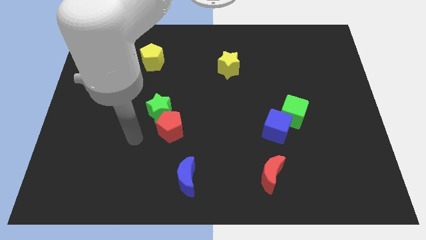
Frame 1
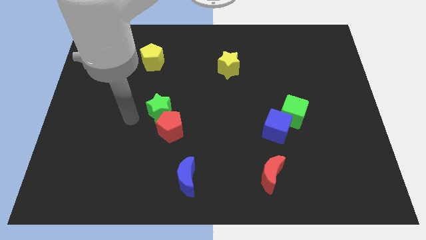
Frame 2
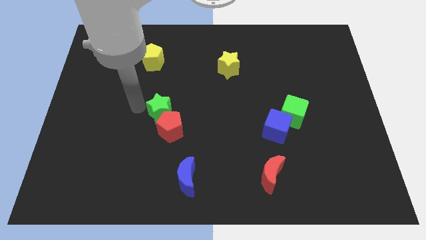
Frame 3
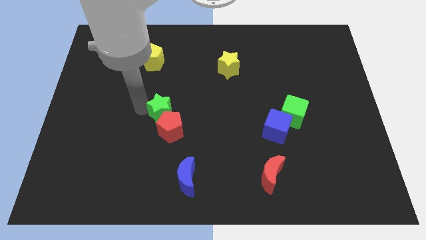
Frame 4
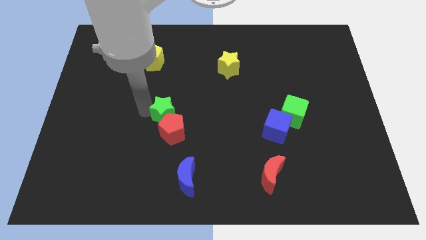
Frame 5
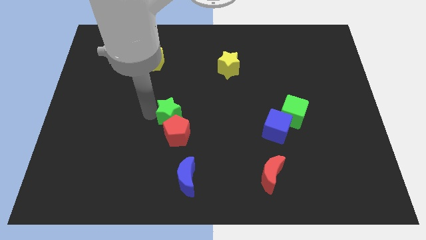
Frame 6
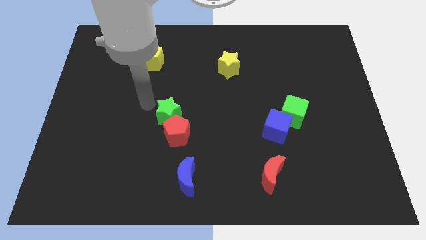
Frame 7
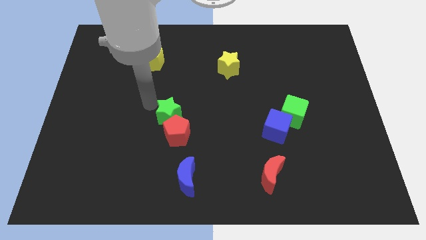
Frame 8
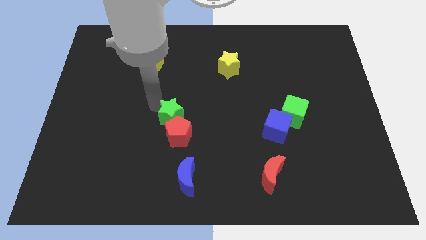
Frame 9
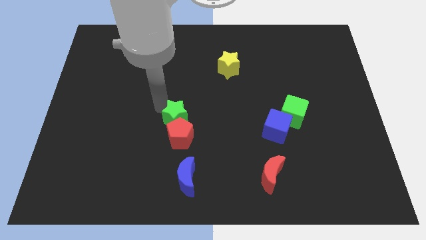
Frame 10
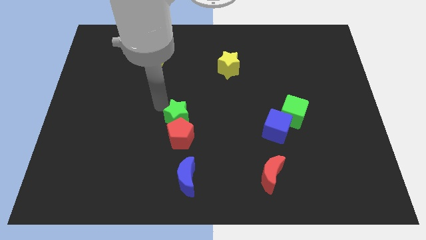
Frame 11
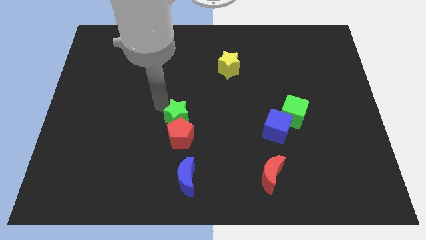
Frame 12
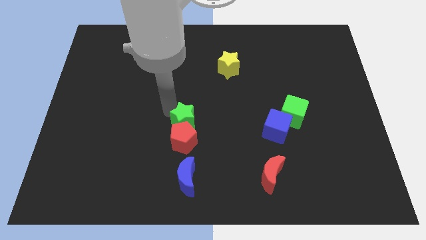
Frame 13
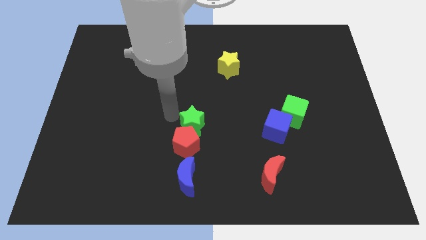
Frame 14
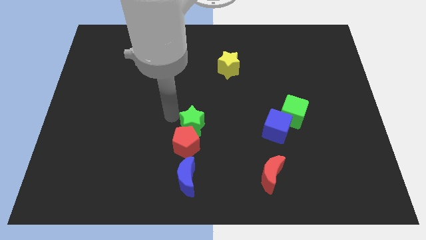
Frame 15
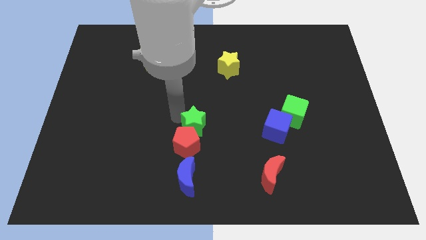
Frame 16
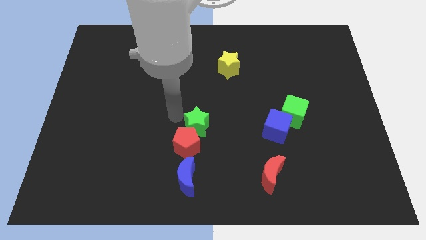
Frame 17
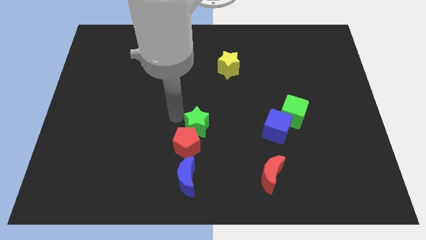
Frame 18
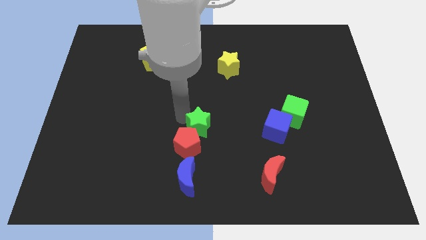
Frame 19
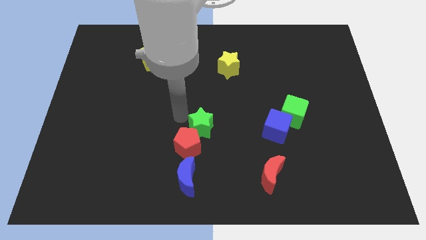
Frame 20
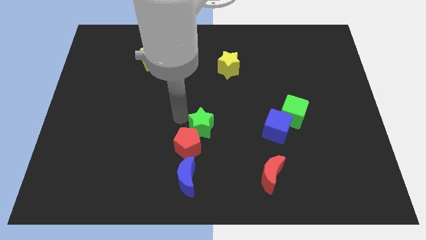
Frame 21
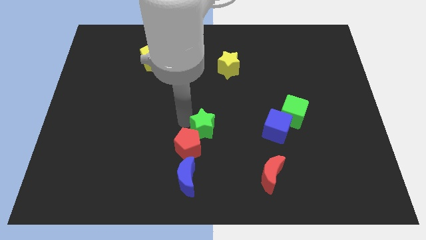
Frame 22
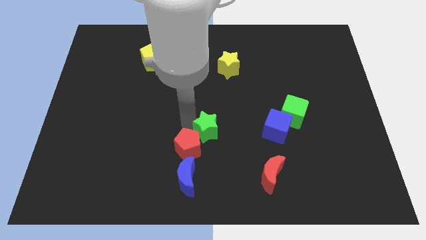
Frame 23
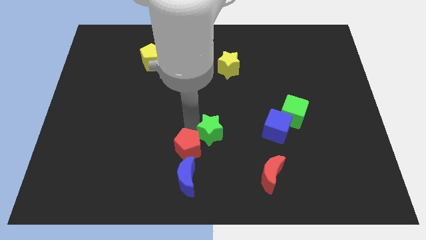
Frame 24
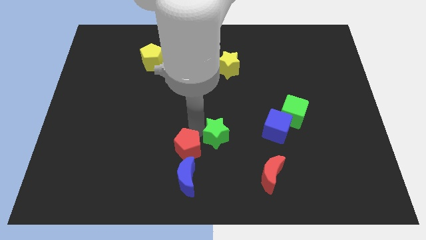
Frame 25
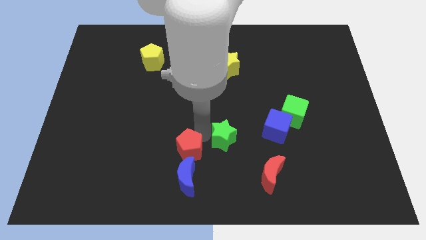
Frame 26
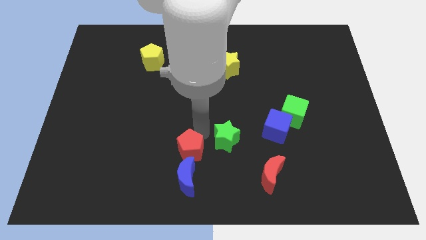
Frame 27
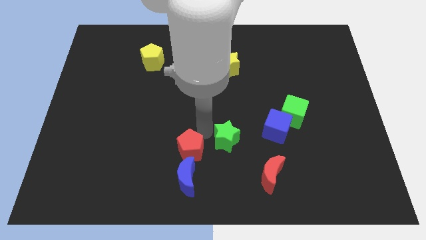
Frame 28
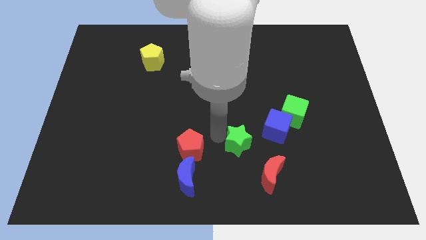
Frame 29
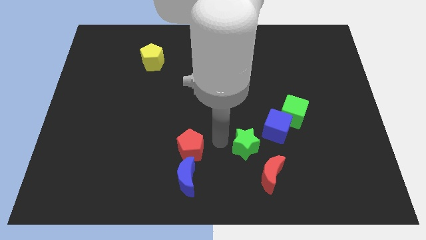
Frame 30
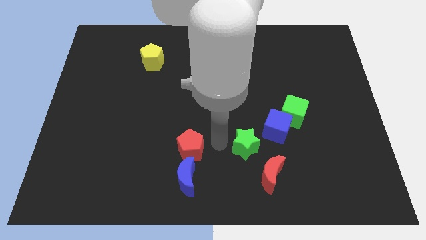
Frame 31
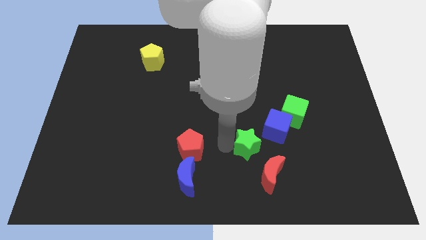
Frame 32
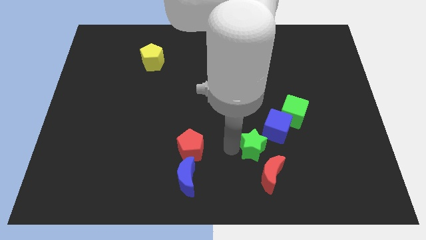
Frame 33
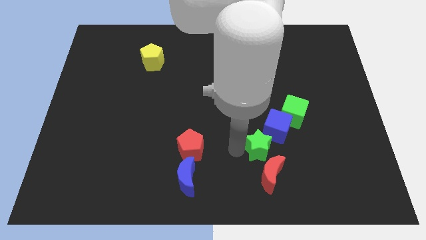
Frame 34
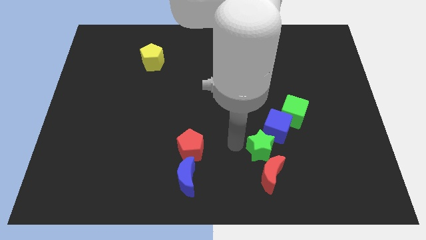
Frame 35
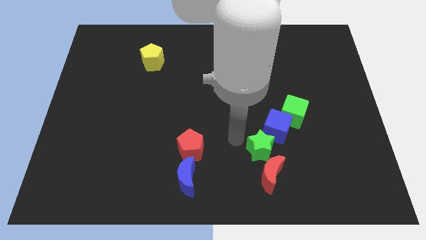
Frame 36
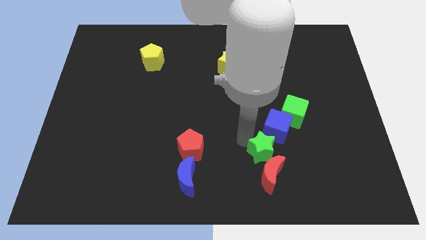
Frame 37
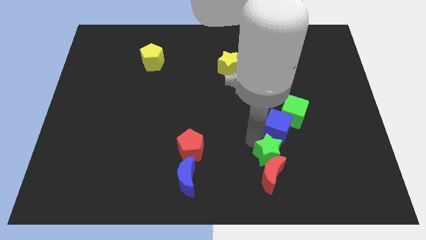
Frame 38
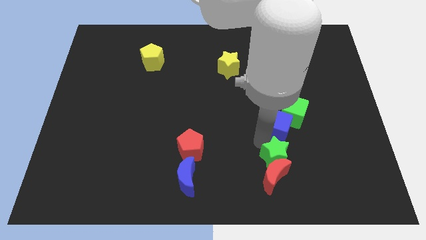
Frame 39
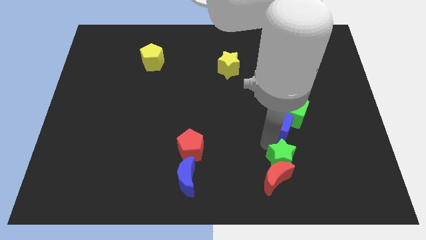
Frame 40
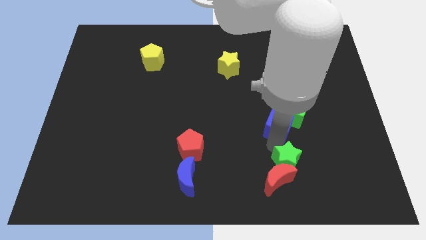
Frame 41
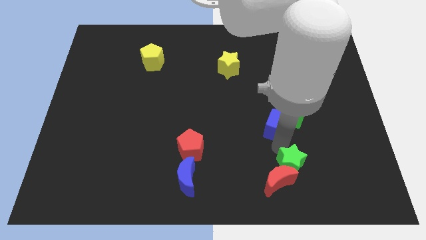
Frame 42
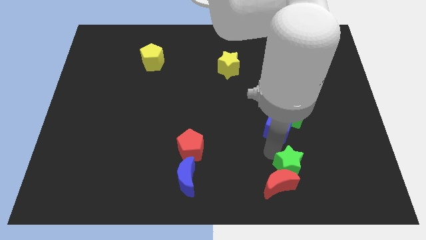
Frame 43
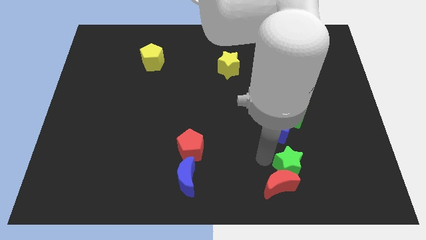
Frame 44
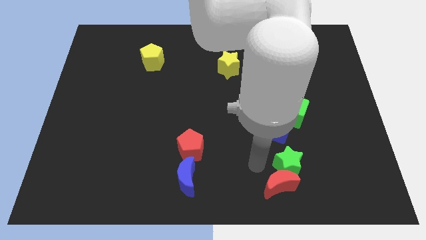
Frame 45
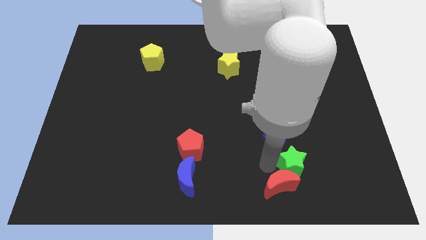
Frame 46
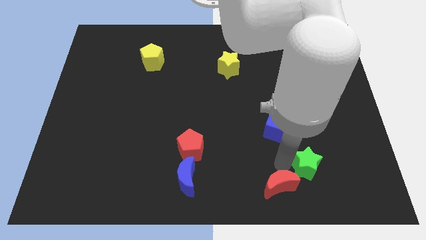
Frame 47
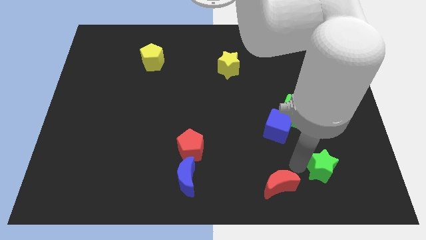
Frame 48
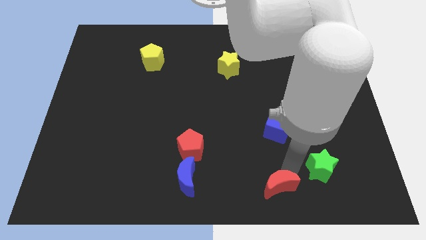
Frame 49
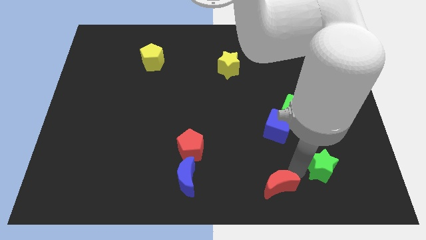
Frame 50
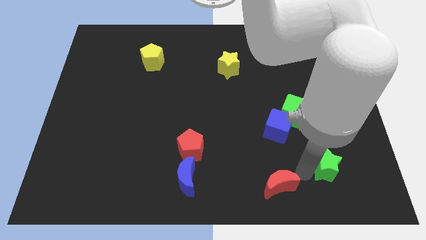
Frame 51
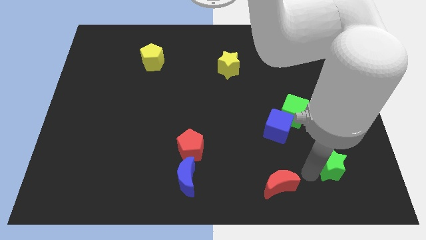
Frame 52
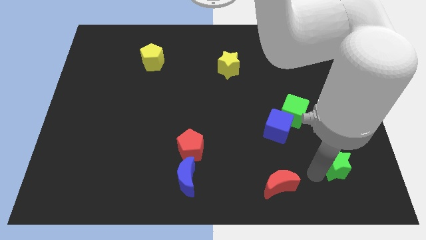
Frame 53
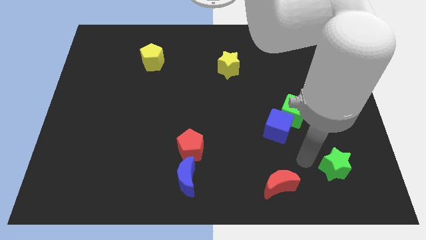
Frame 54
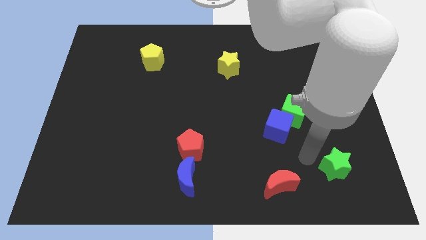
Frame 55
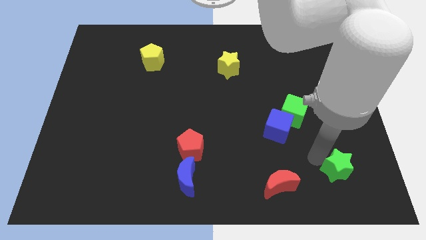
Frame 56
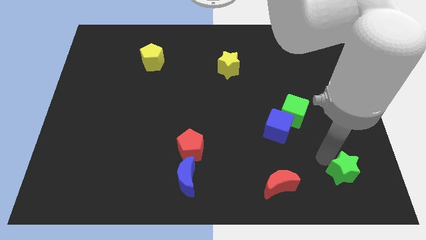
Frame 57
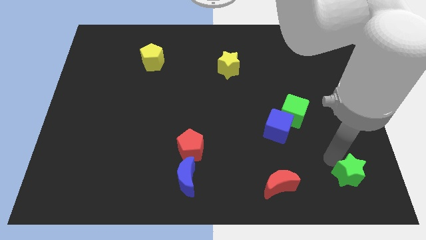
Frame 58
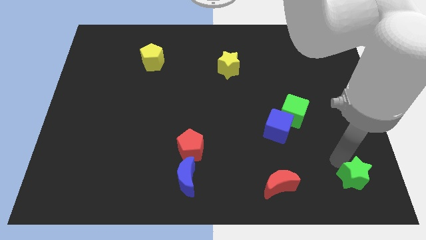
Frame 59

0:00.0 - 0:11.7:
put the green star to the bottom right

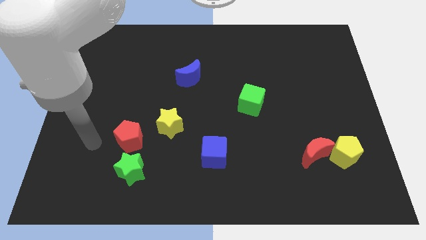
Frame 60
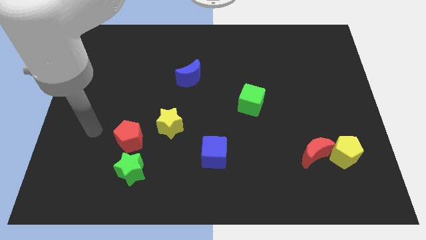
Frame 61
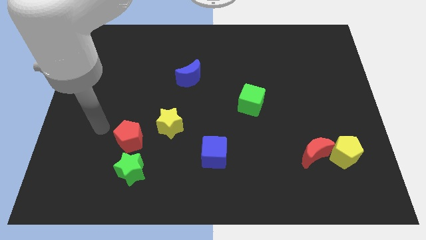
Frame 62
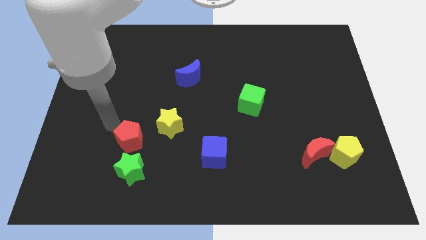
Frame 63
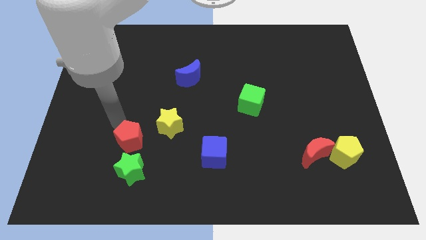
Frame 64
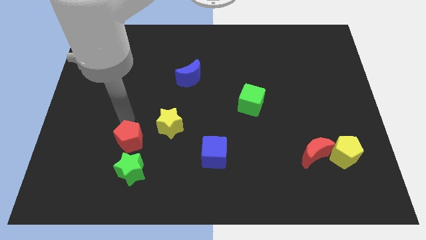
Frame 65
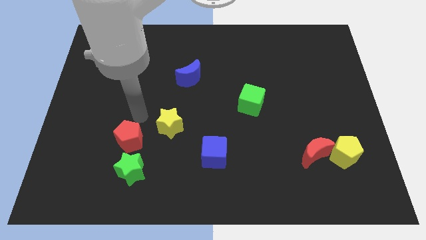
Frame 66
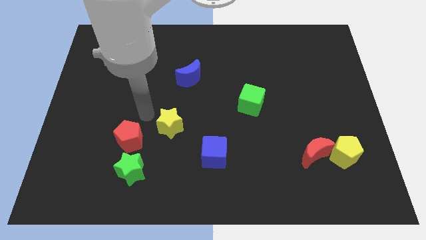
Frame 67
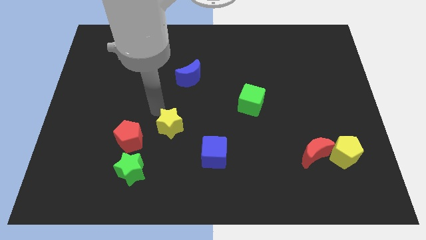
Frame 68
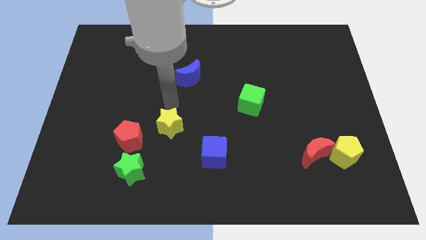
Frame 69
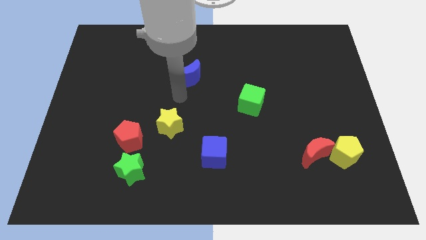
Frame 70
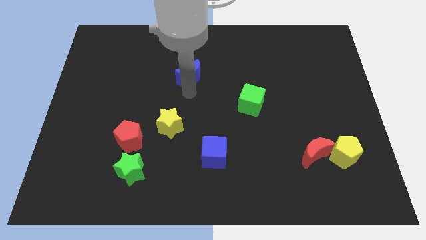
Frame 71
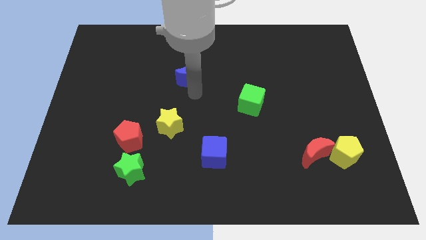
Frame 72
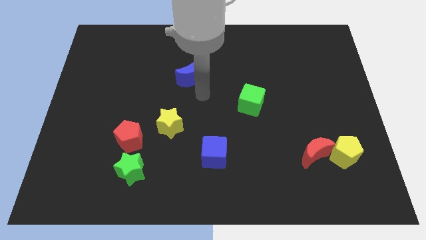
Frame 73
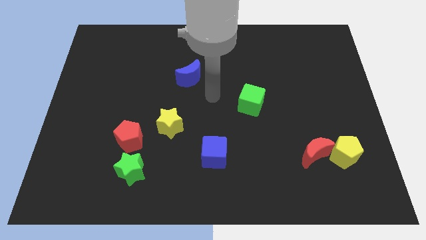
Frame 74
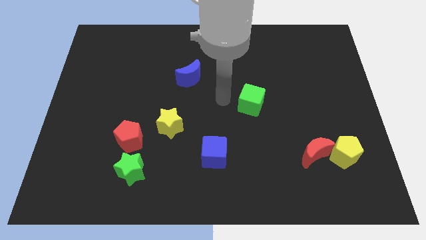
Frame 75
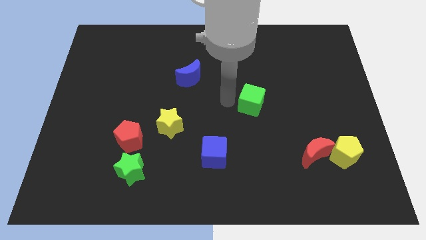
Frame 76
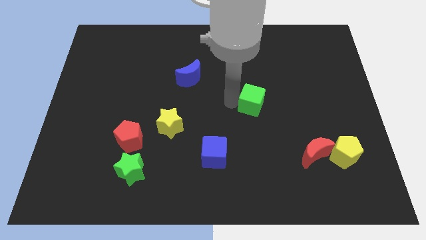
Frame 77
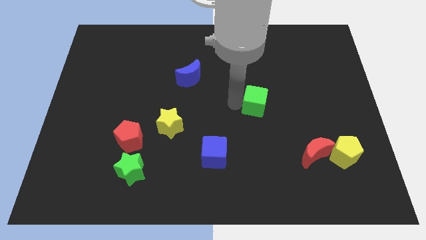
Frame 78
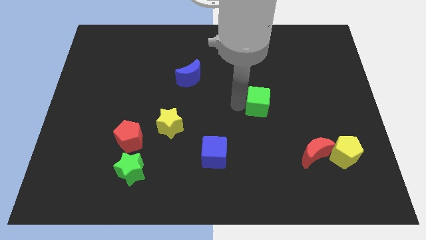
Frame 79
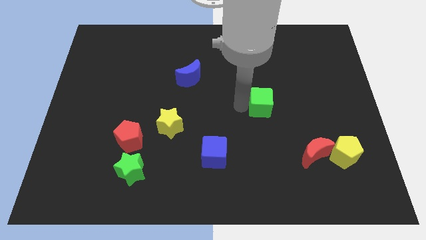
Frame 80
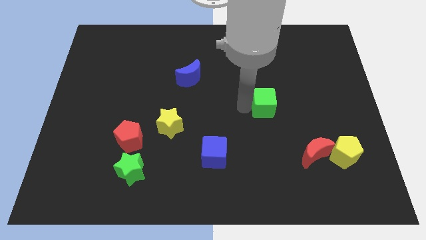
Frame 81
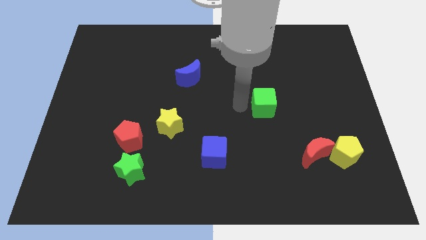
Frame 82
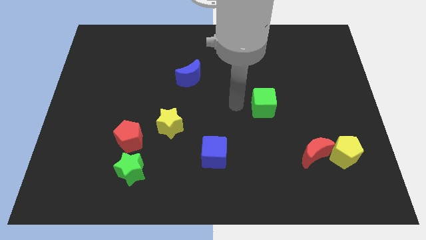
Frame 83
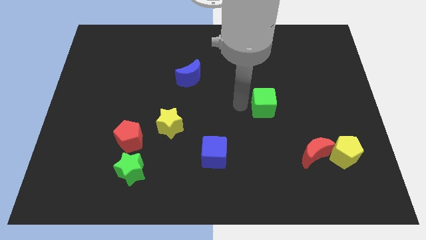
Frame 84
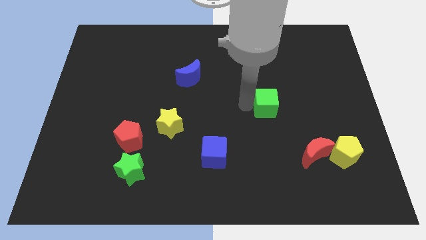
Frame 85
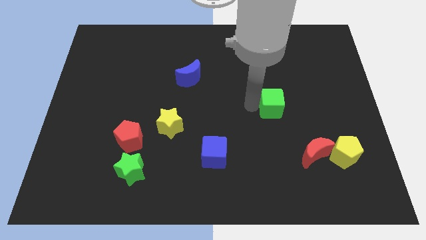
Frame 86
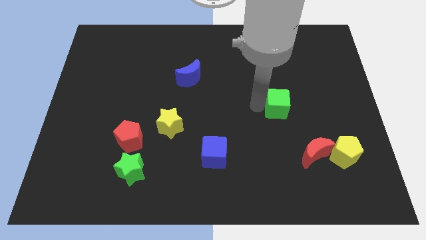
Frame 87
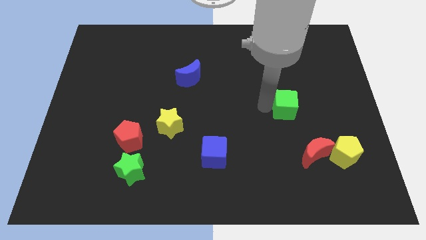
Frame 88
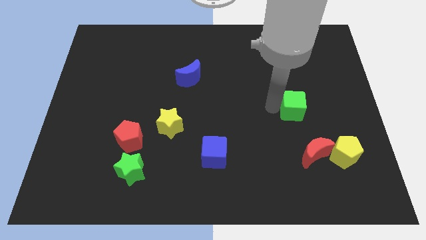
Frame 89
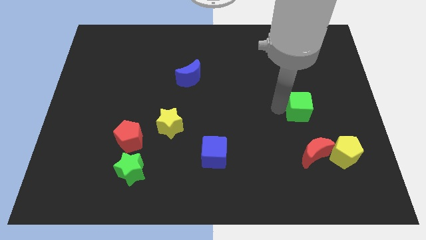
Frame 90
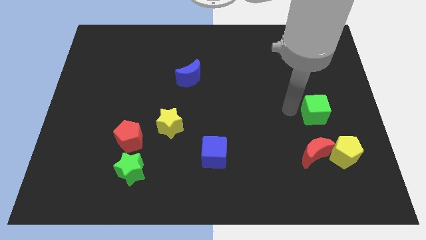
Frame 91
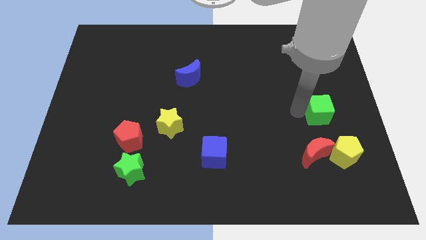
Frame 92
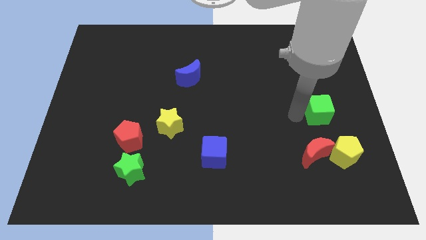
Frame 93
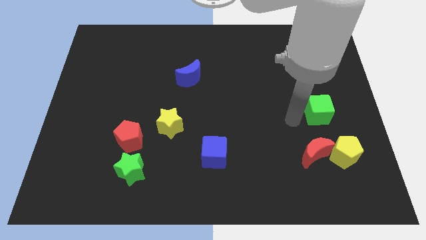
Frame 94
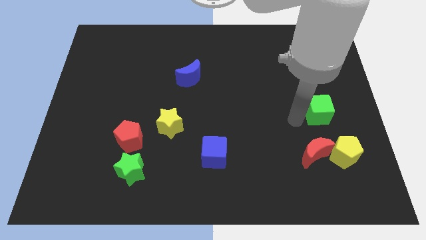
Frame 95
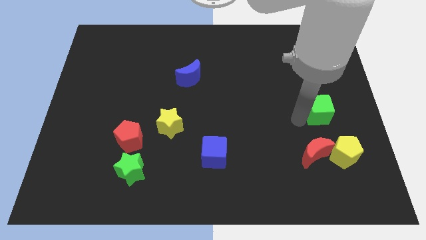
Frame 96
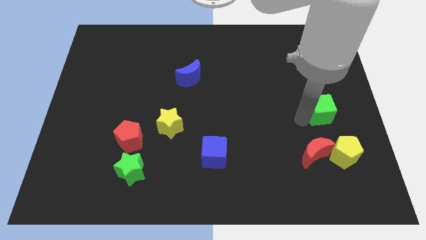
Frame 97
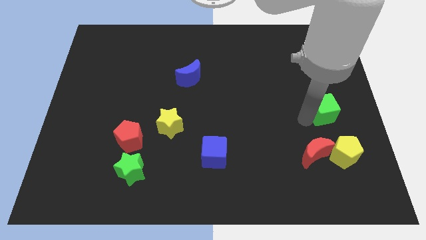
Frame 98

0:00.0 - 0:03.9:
slide the green cube to the right side
